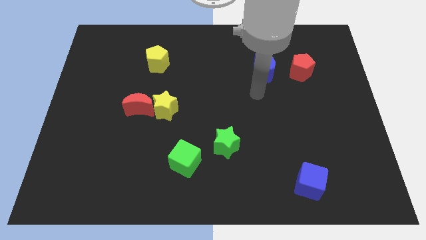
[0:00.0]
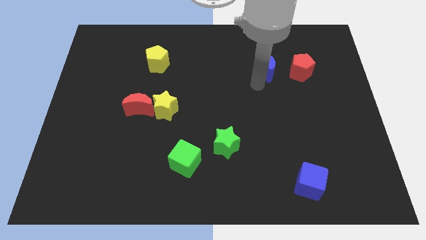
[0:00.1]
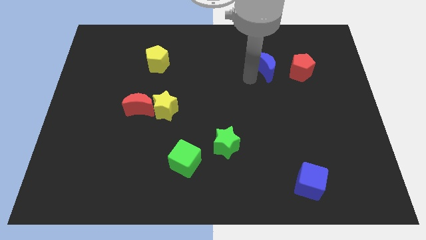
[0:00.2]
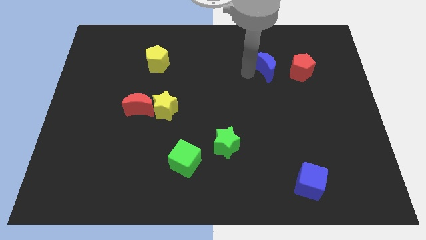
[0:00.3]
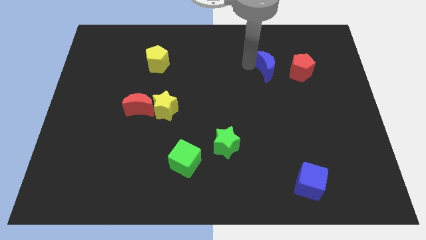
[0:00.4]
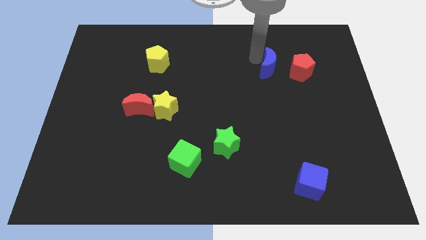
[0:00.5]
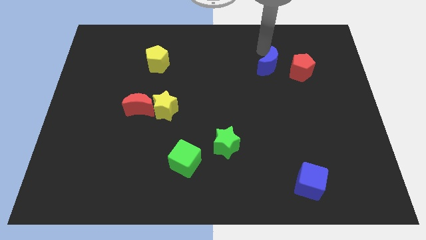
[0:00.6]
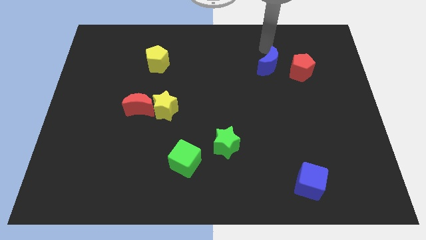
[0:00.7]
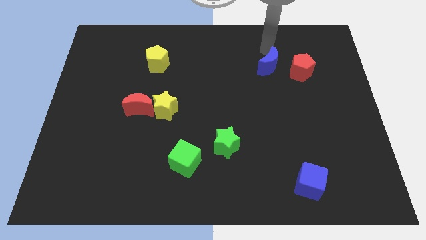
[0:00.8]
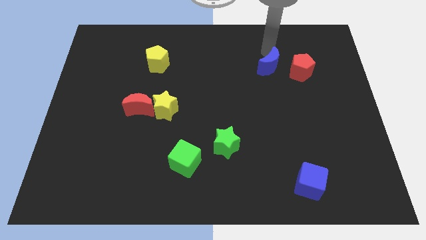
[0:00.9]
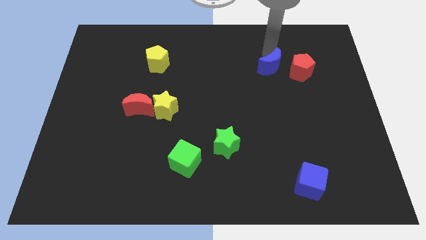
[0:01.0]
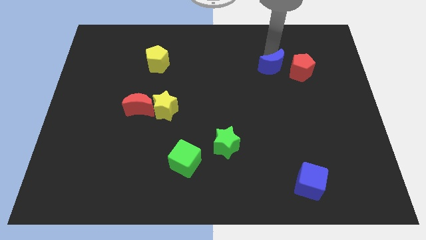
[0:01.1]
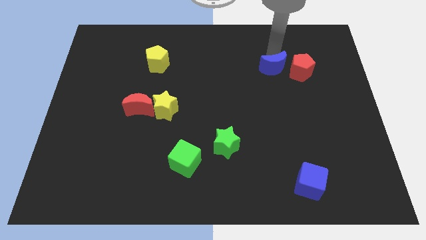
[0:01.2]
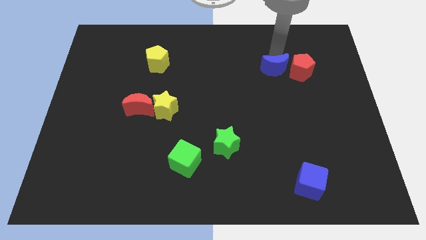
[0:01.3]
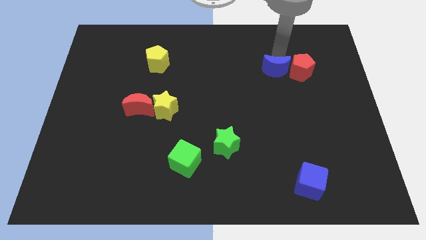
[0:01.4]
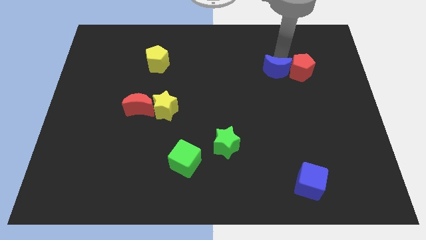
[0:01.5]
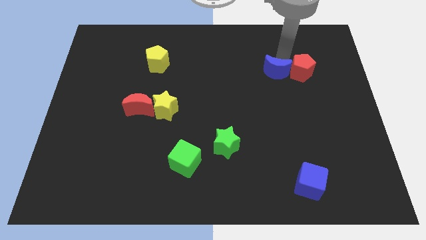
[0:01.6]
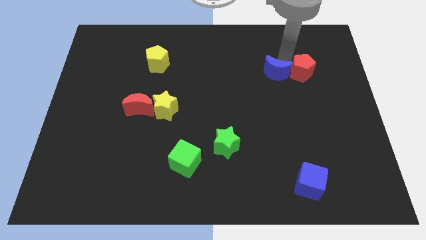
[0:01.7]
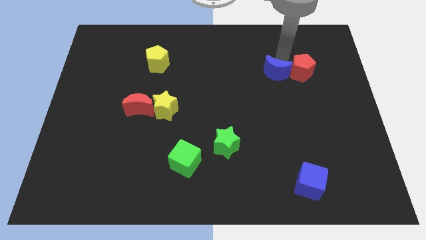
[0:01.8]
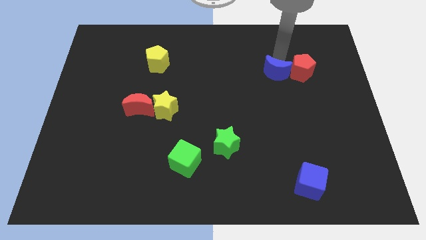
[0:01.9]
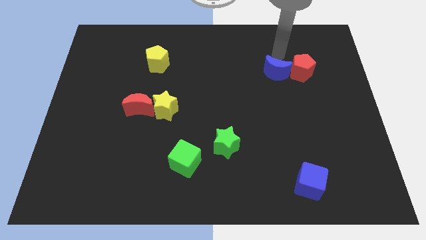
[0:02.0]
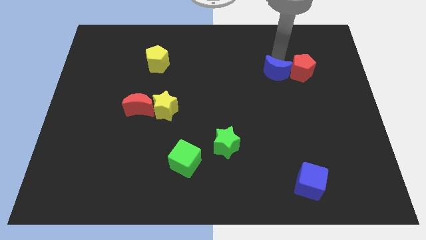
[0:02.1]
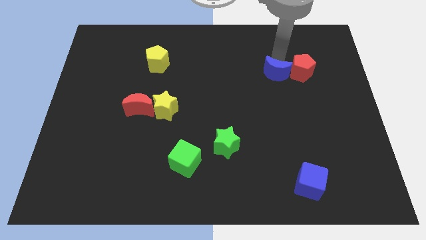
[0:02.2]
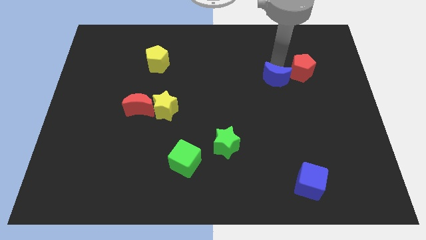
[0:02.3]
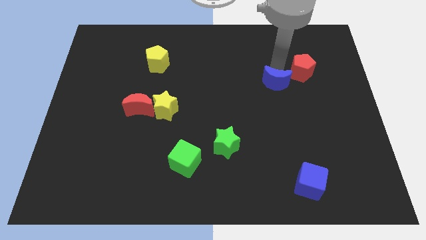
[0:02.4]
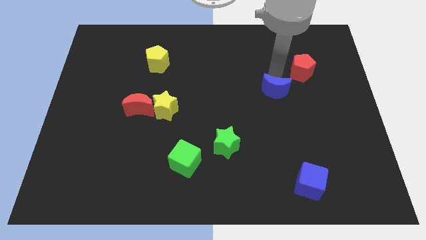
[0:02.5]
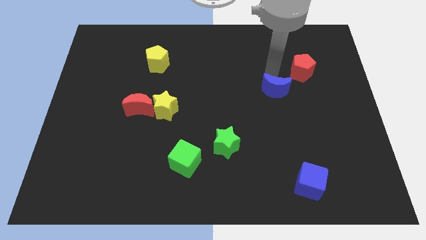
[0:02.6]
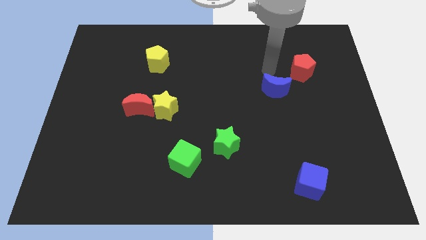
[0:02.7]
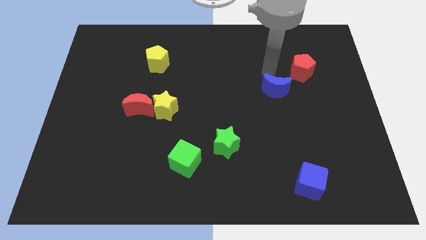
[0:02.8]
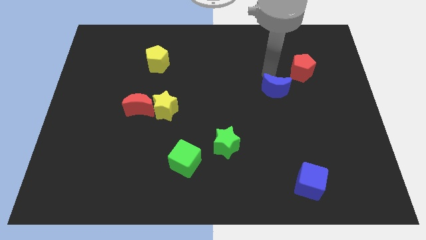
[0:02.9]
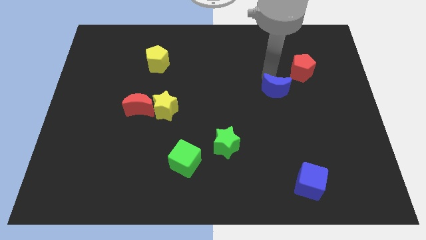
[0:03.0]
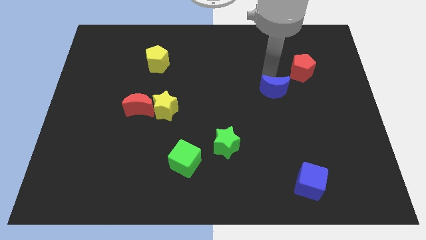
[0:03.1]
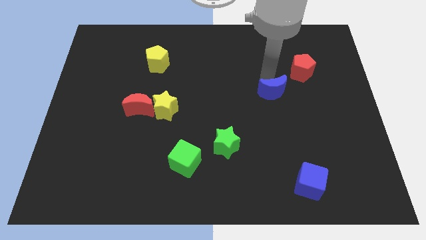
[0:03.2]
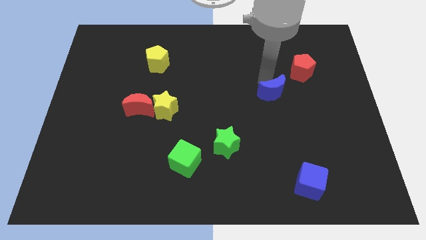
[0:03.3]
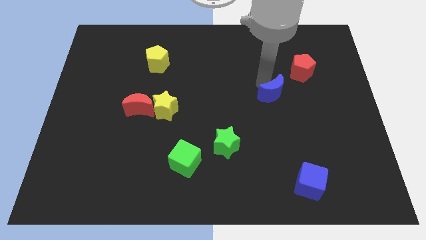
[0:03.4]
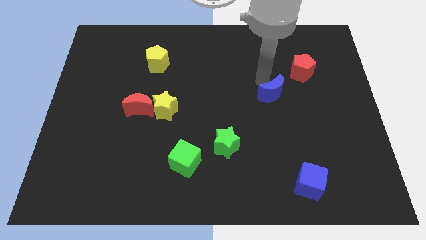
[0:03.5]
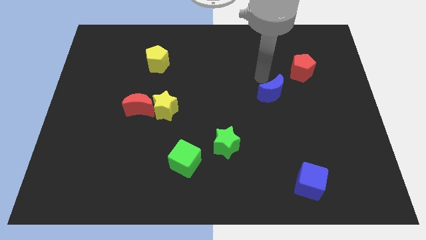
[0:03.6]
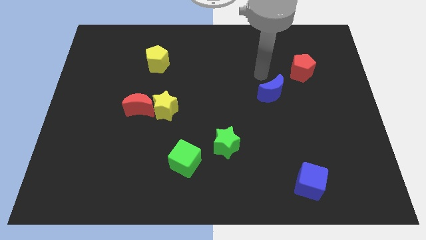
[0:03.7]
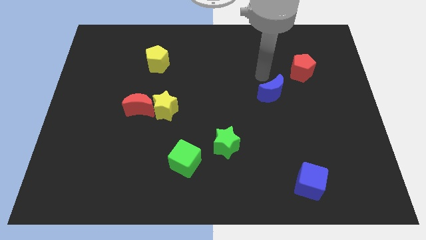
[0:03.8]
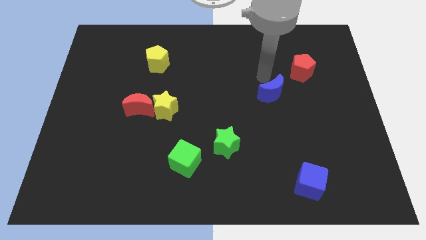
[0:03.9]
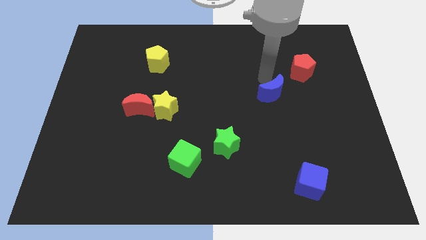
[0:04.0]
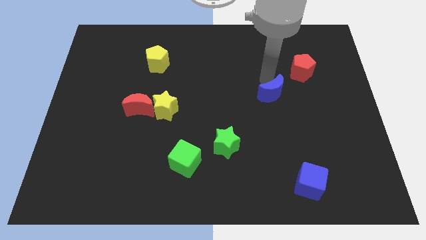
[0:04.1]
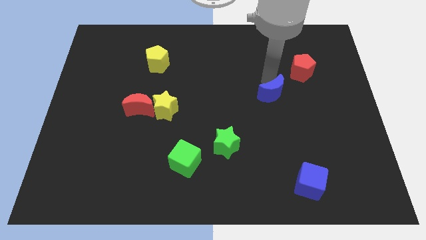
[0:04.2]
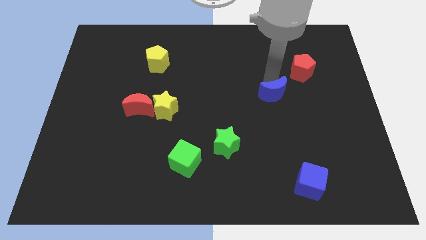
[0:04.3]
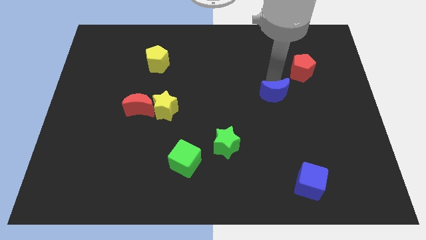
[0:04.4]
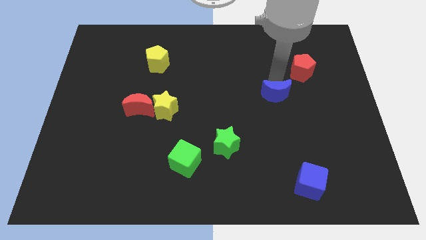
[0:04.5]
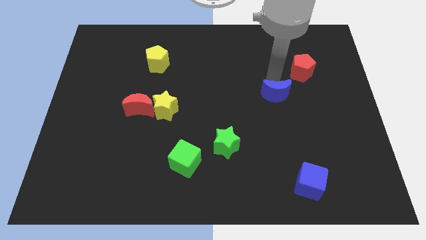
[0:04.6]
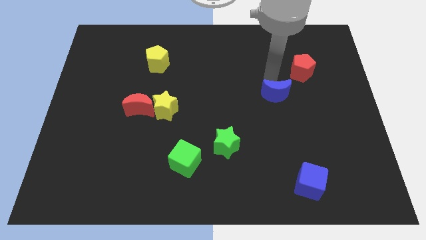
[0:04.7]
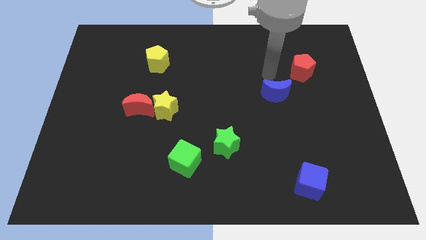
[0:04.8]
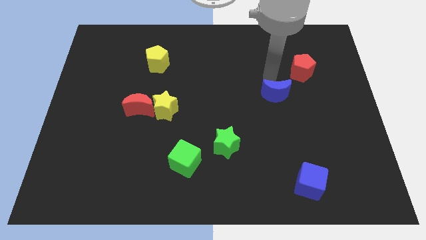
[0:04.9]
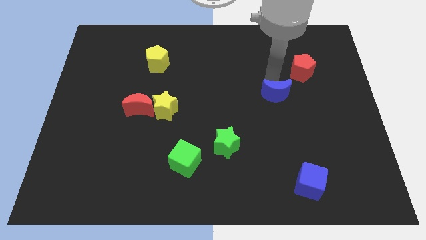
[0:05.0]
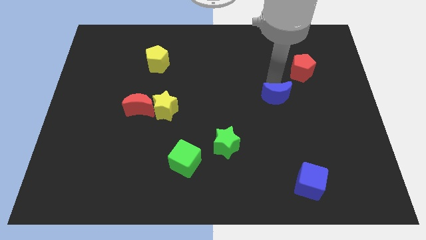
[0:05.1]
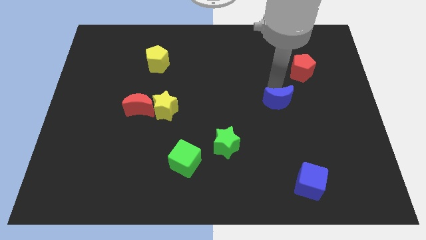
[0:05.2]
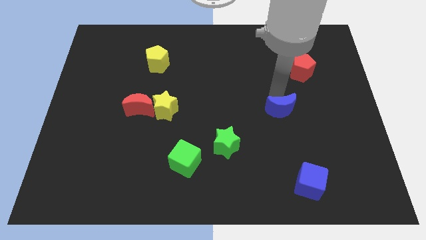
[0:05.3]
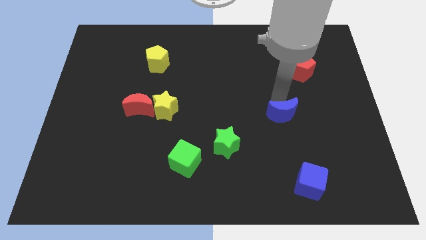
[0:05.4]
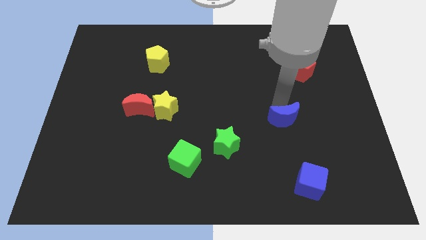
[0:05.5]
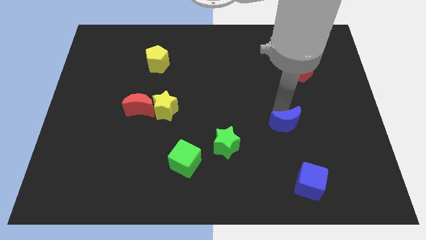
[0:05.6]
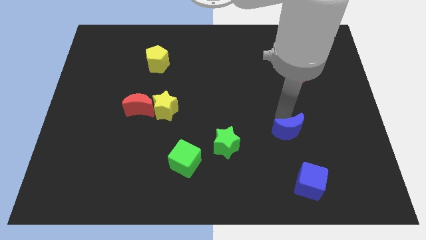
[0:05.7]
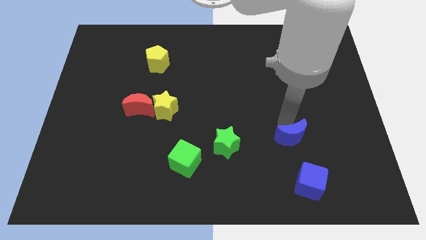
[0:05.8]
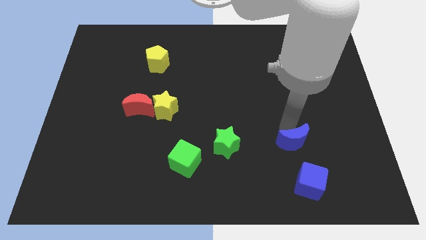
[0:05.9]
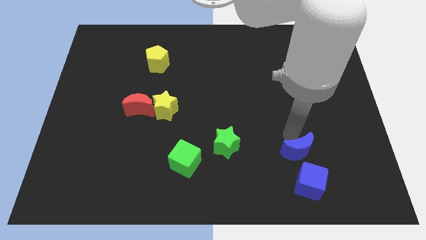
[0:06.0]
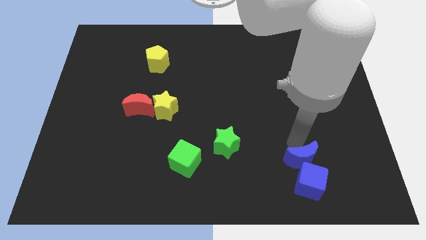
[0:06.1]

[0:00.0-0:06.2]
move the blue moon to the blue cube

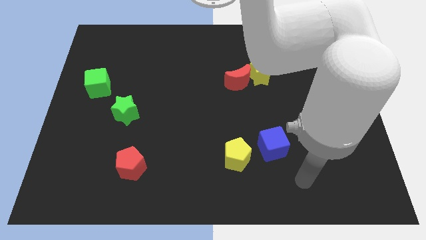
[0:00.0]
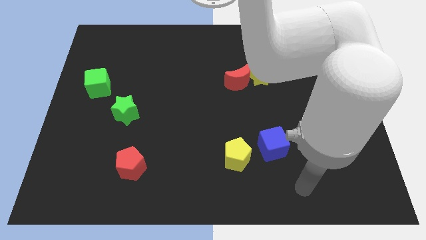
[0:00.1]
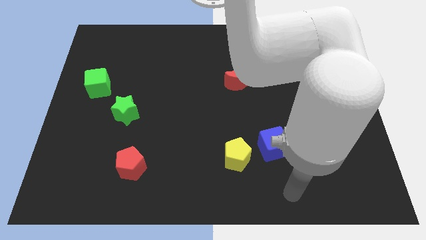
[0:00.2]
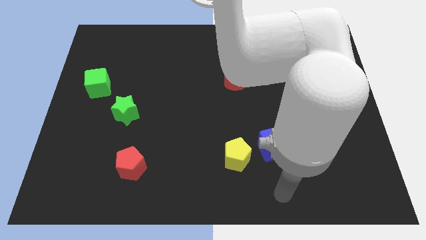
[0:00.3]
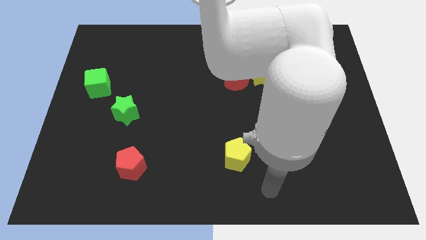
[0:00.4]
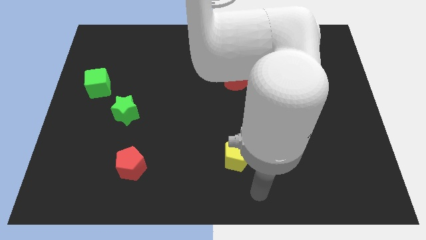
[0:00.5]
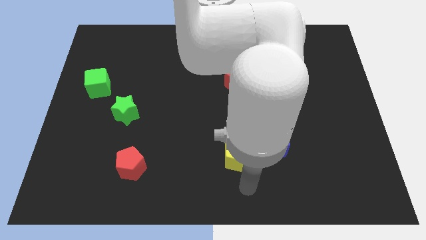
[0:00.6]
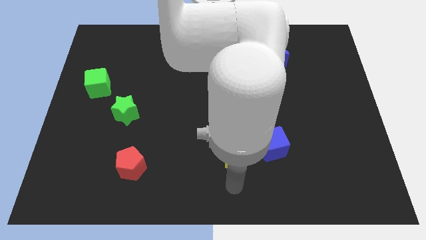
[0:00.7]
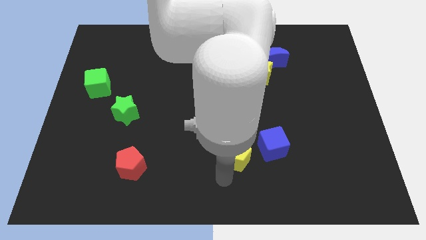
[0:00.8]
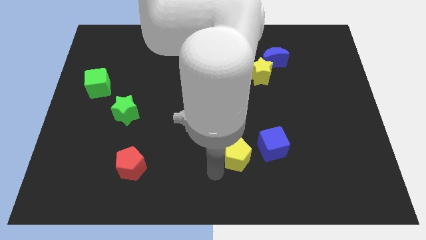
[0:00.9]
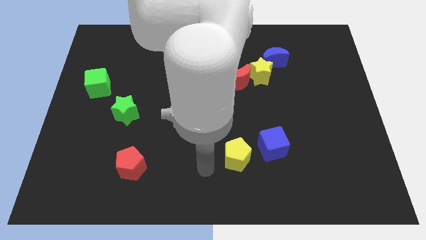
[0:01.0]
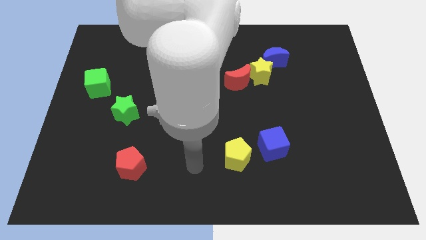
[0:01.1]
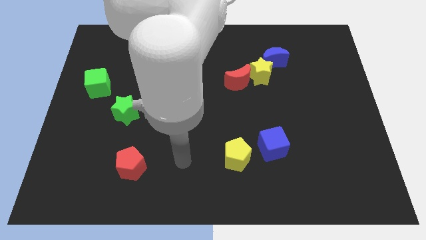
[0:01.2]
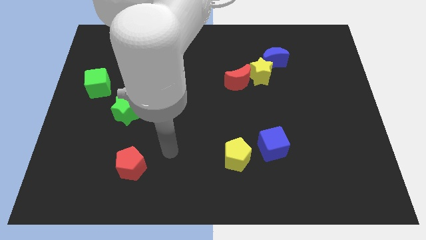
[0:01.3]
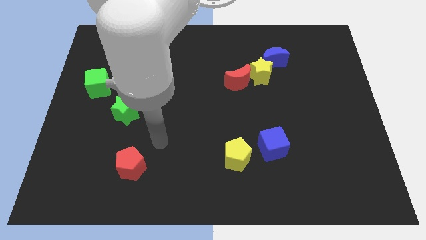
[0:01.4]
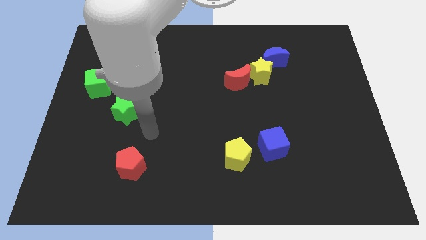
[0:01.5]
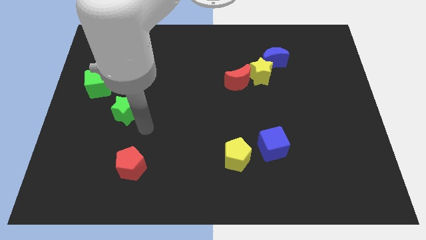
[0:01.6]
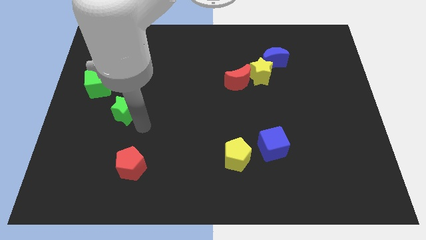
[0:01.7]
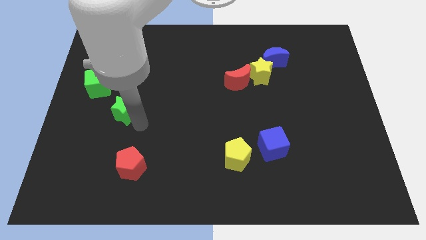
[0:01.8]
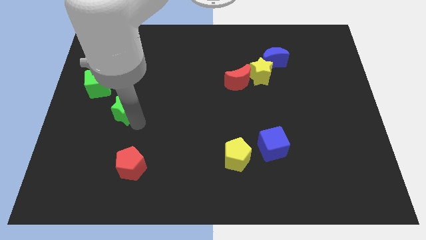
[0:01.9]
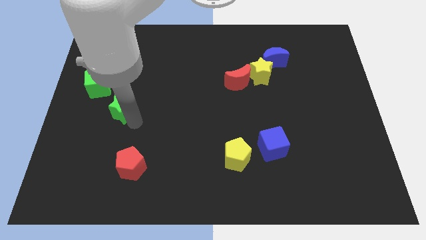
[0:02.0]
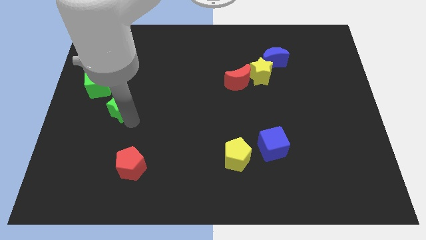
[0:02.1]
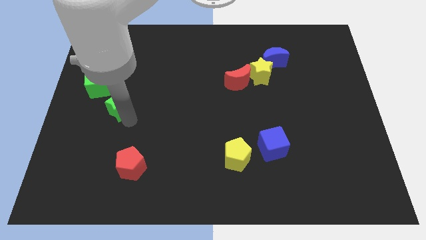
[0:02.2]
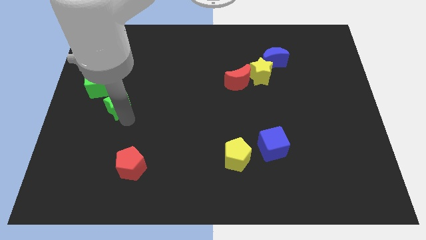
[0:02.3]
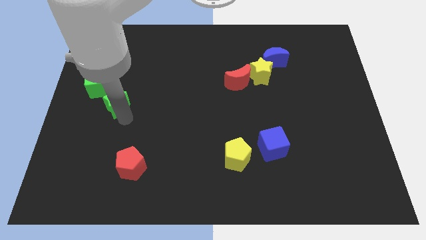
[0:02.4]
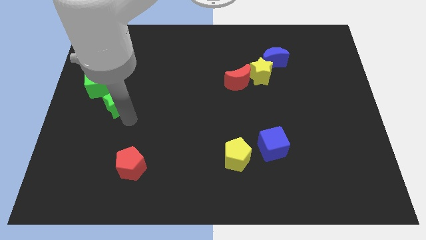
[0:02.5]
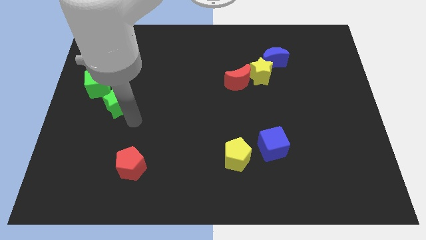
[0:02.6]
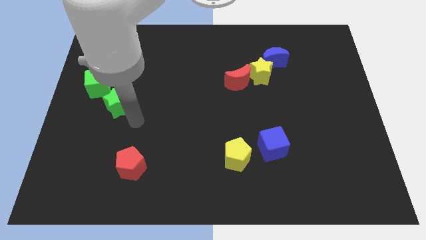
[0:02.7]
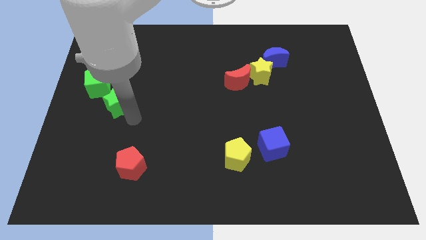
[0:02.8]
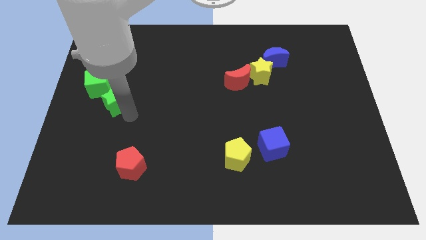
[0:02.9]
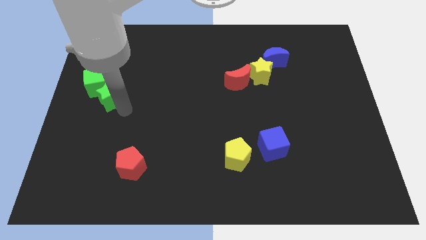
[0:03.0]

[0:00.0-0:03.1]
slide the green star towards the green cube
